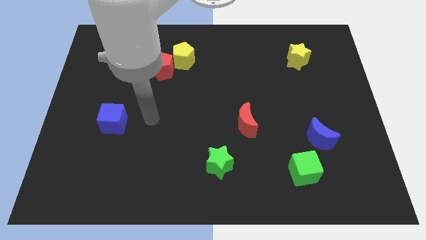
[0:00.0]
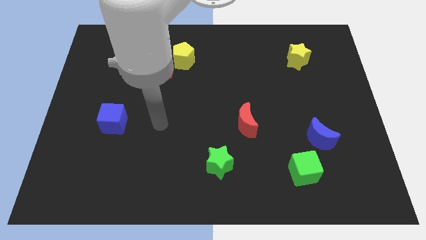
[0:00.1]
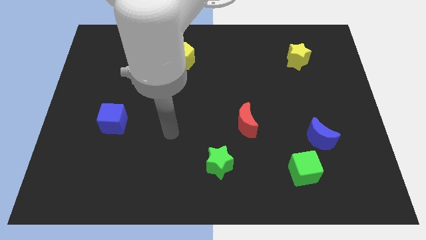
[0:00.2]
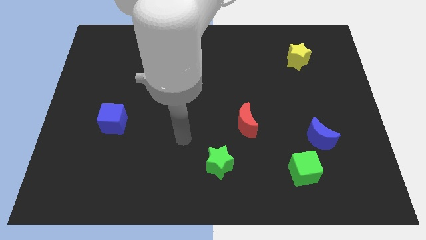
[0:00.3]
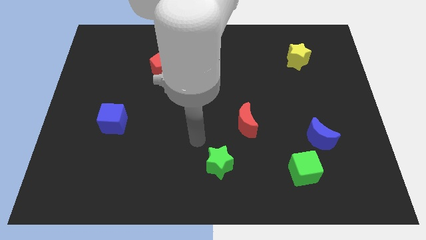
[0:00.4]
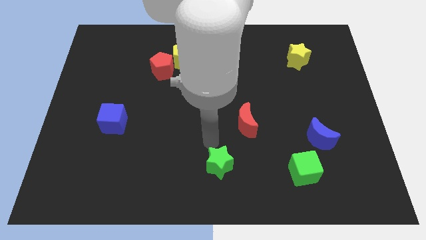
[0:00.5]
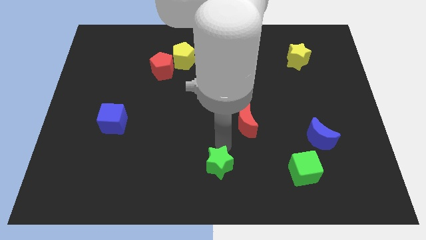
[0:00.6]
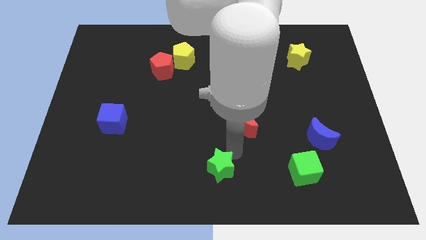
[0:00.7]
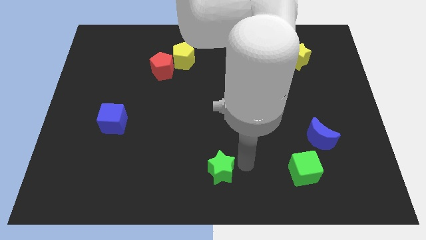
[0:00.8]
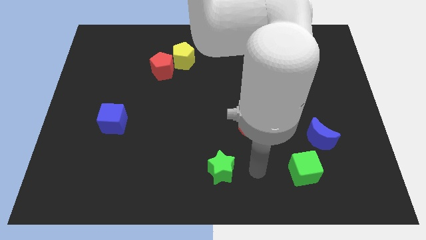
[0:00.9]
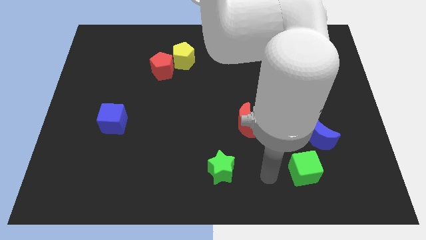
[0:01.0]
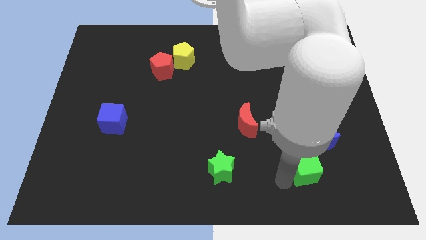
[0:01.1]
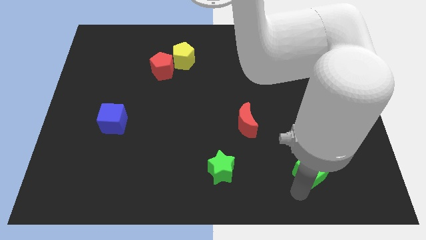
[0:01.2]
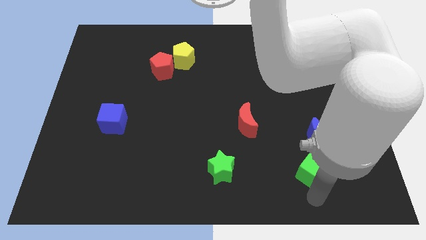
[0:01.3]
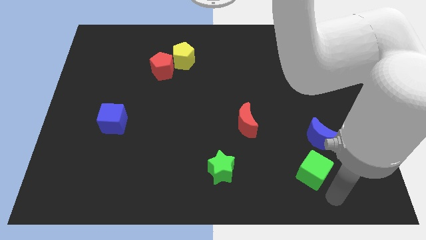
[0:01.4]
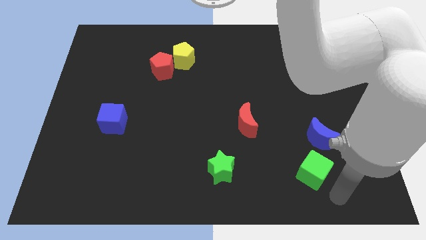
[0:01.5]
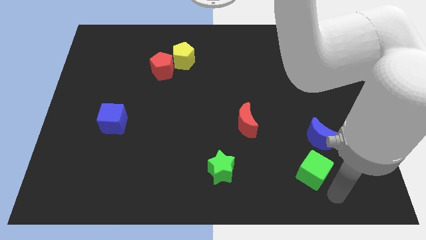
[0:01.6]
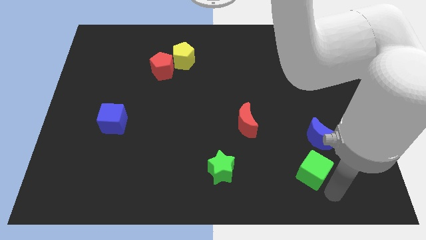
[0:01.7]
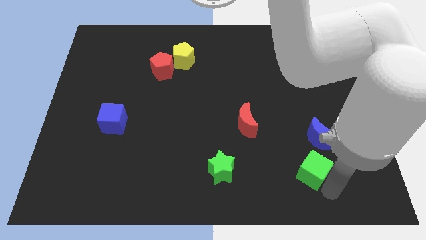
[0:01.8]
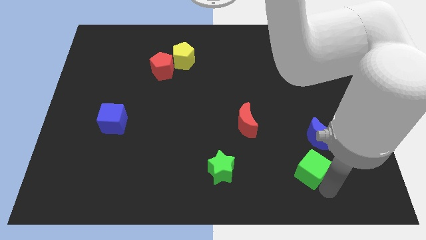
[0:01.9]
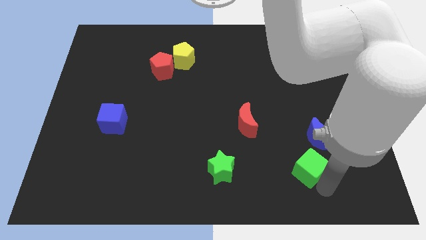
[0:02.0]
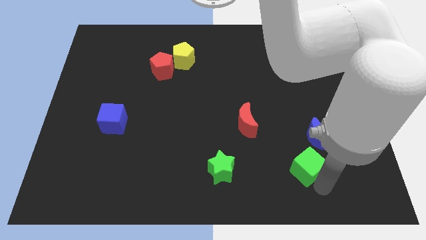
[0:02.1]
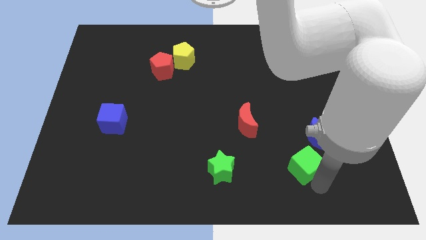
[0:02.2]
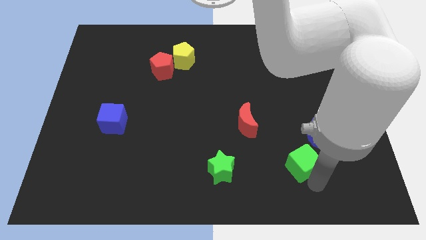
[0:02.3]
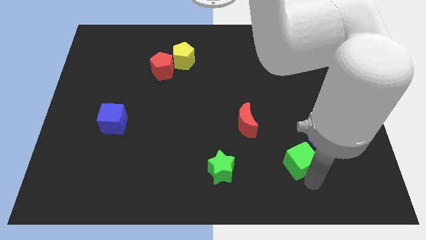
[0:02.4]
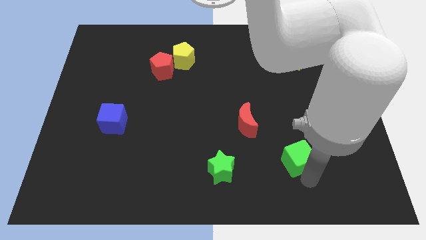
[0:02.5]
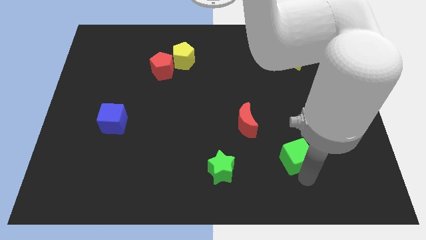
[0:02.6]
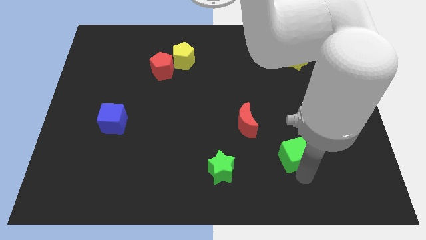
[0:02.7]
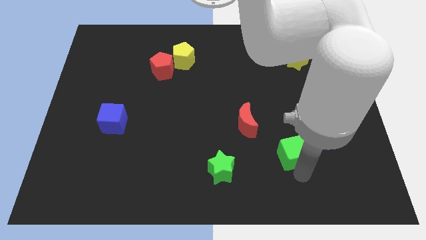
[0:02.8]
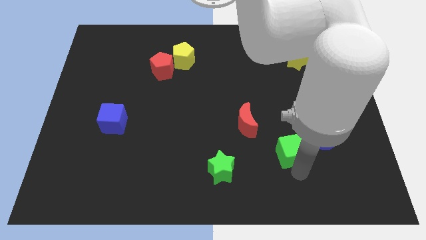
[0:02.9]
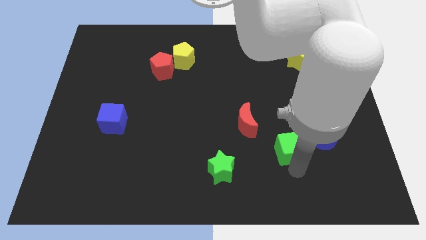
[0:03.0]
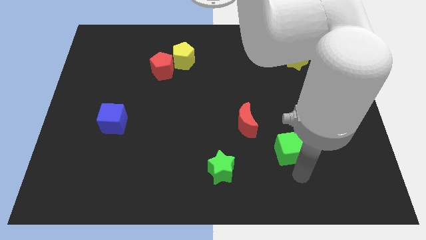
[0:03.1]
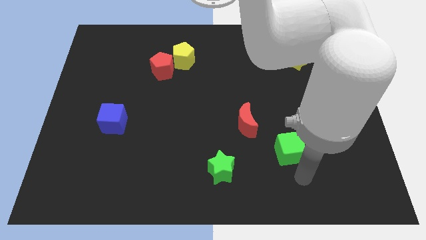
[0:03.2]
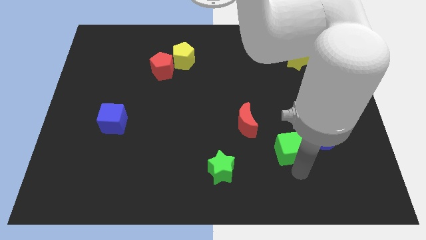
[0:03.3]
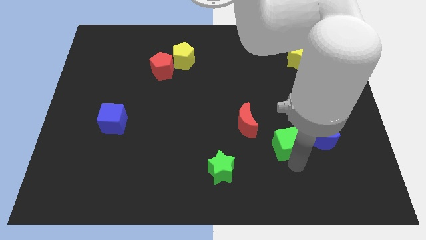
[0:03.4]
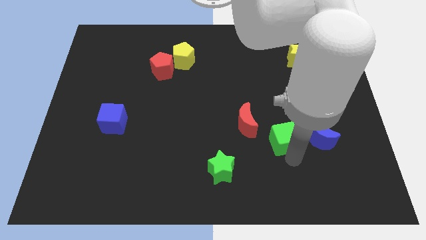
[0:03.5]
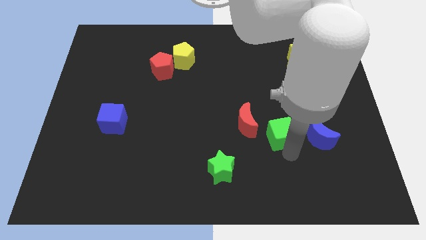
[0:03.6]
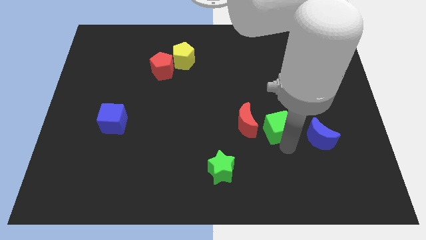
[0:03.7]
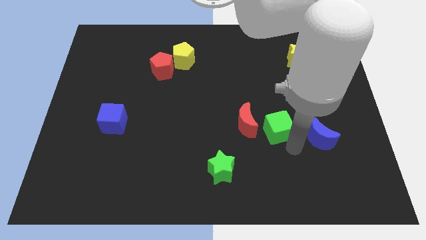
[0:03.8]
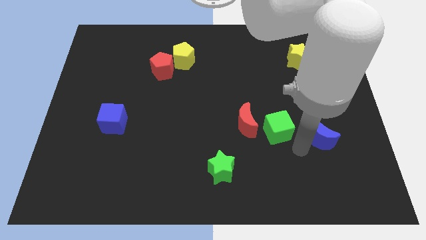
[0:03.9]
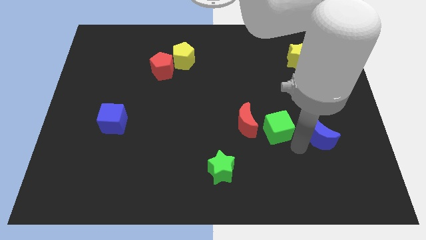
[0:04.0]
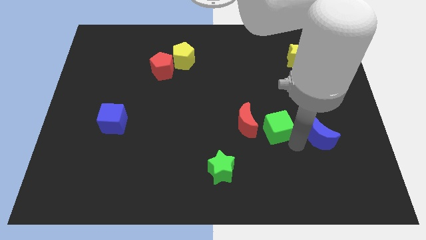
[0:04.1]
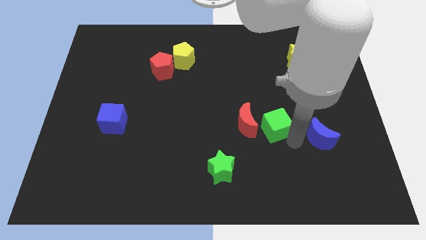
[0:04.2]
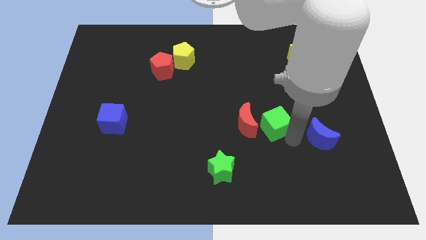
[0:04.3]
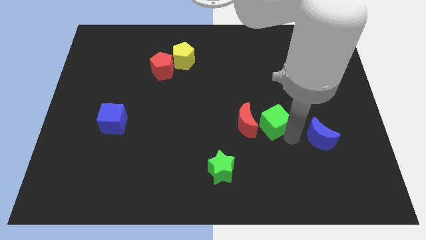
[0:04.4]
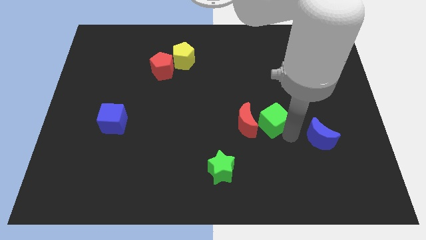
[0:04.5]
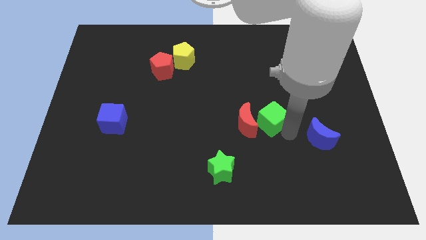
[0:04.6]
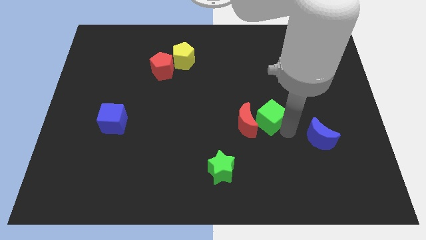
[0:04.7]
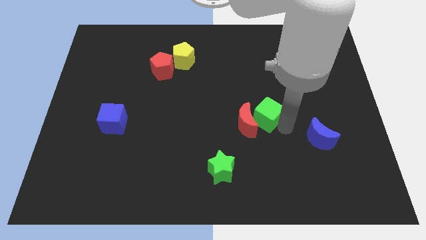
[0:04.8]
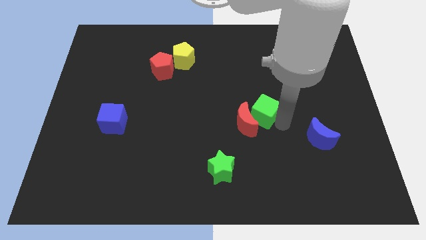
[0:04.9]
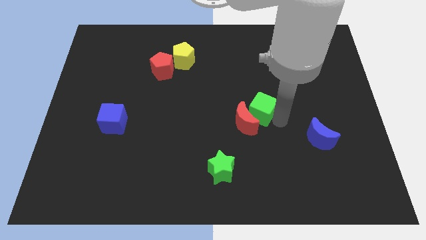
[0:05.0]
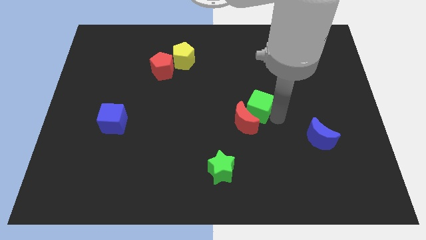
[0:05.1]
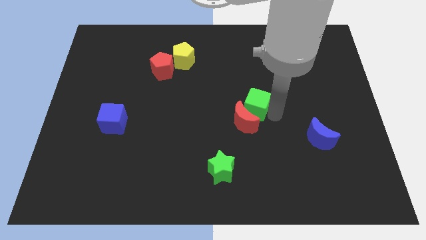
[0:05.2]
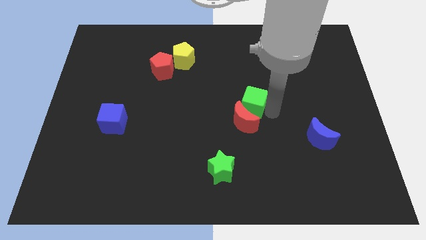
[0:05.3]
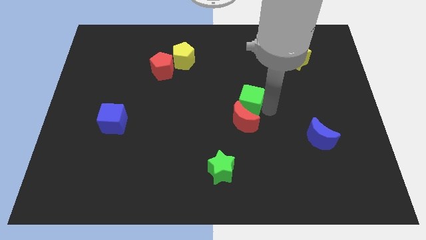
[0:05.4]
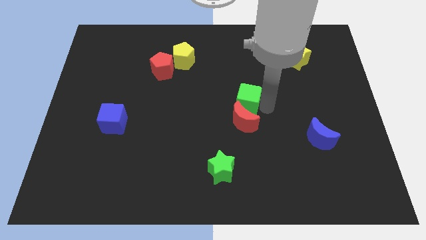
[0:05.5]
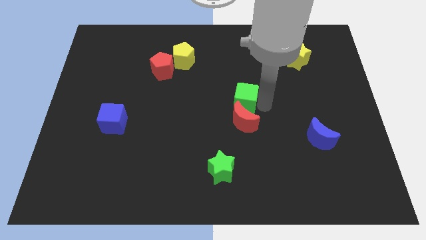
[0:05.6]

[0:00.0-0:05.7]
push the green cube to the top left of the red moon

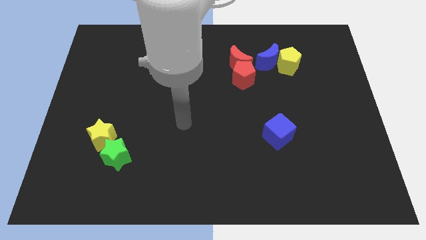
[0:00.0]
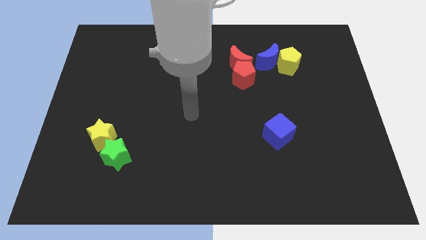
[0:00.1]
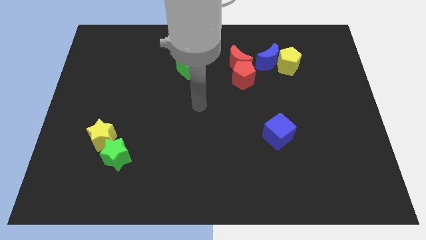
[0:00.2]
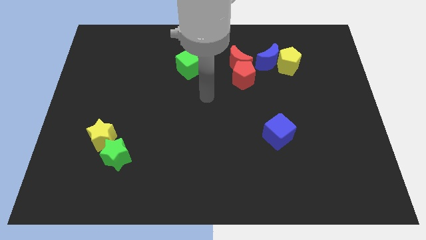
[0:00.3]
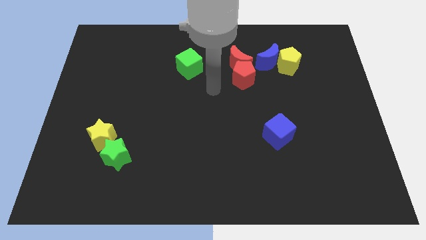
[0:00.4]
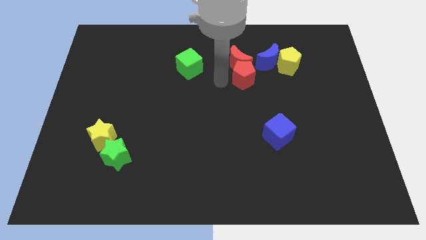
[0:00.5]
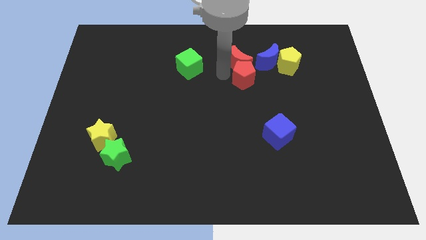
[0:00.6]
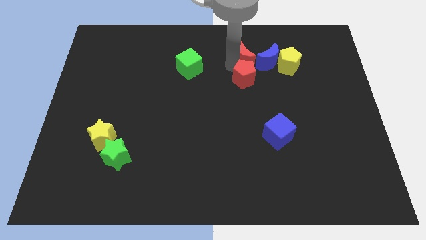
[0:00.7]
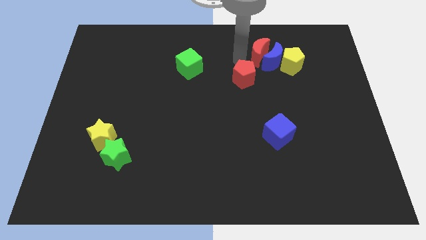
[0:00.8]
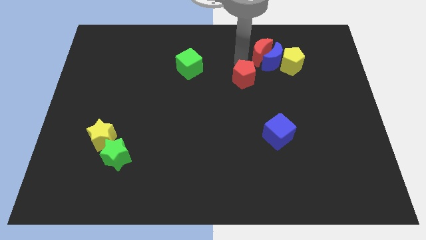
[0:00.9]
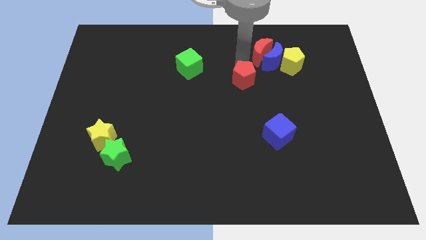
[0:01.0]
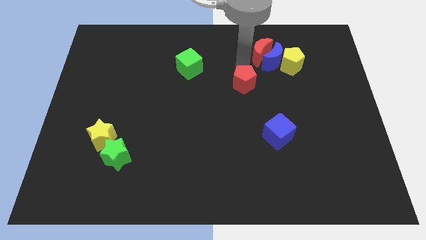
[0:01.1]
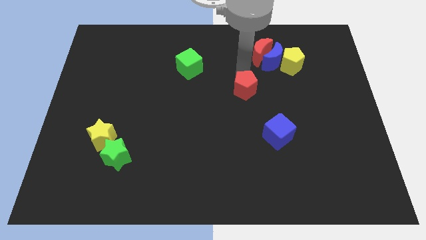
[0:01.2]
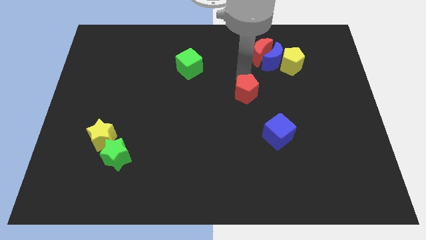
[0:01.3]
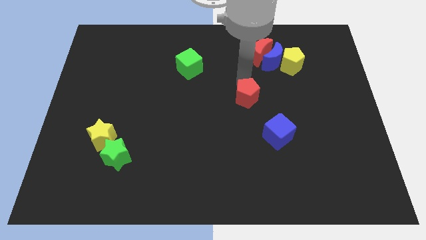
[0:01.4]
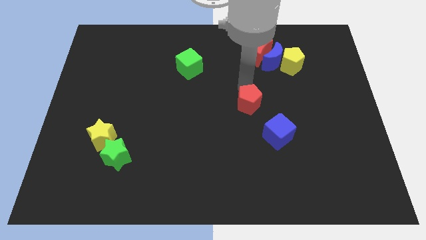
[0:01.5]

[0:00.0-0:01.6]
push the red pentagon to the top left of the blue cube

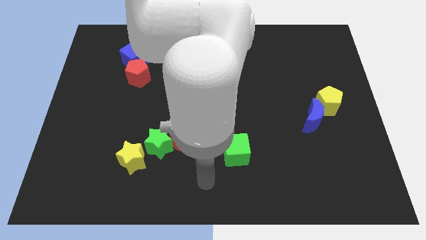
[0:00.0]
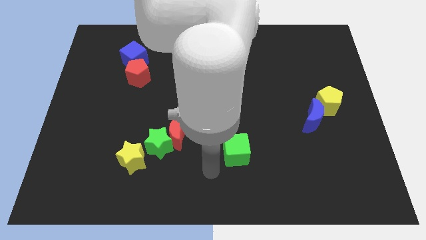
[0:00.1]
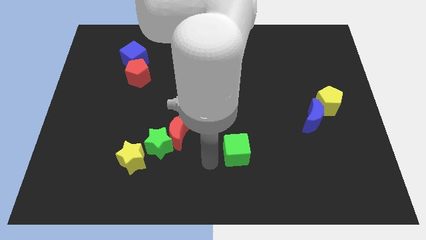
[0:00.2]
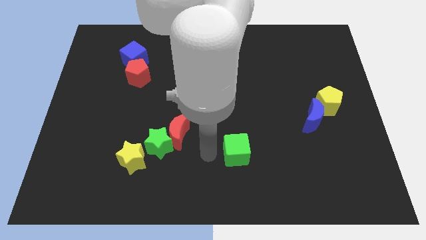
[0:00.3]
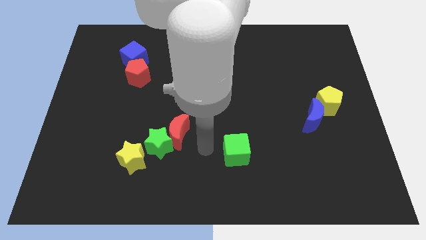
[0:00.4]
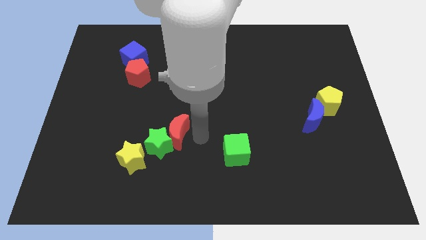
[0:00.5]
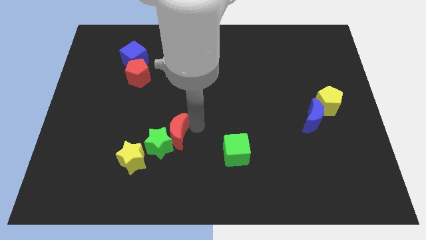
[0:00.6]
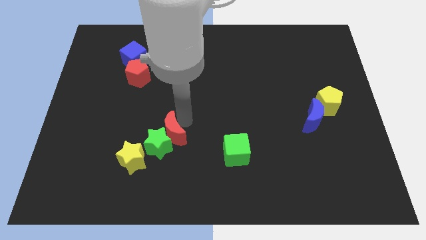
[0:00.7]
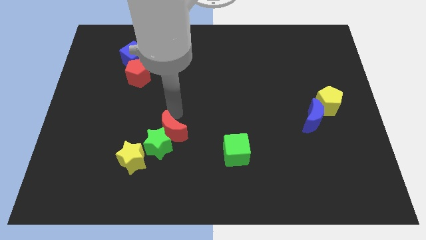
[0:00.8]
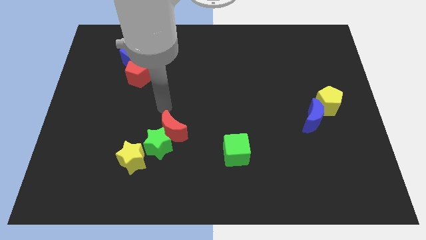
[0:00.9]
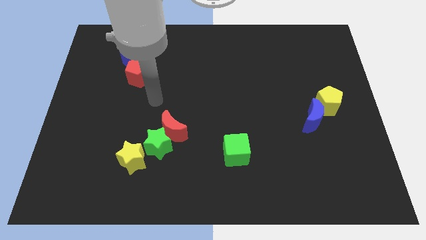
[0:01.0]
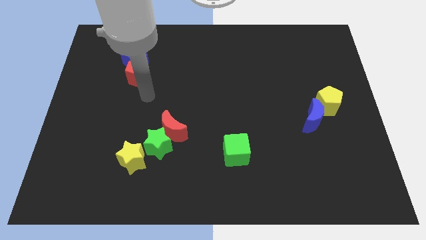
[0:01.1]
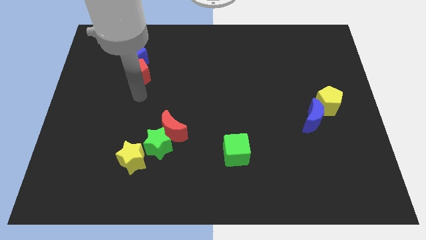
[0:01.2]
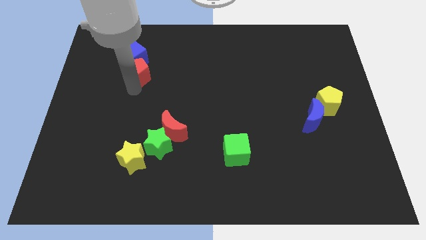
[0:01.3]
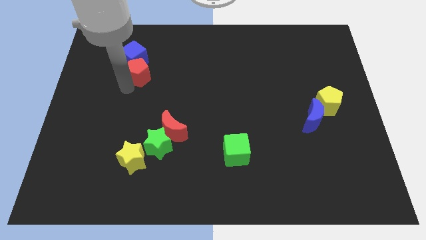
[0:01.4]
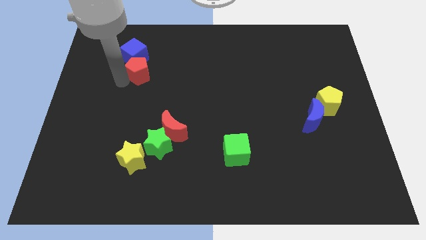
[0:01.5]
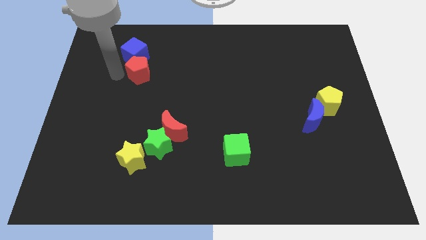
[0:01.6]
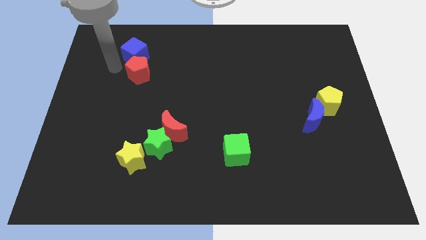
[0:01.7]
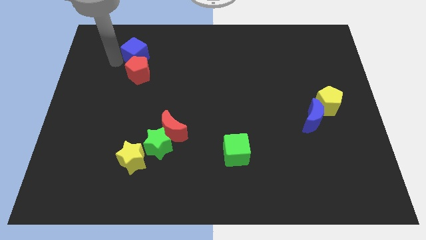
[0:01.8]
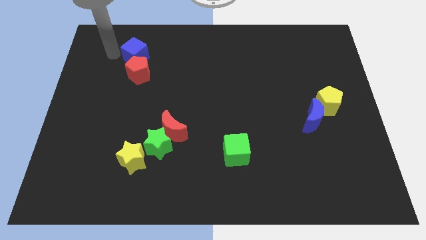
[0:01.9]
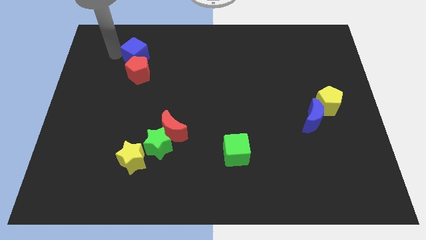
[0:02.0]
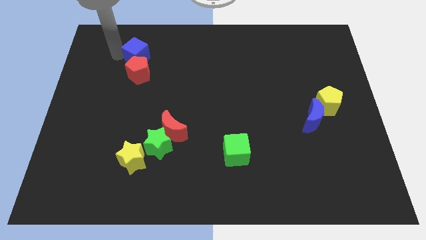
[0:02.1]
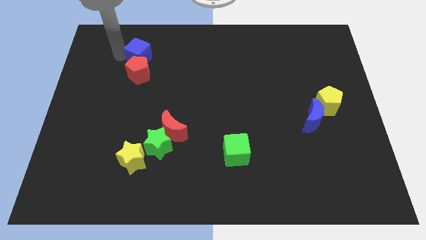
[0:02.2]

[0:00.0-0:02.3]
put the blue cube diagonally up and to the right of the red pentagon
